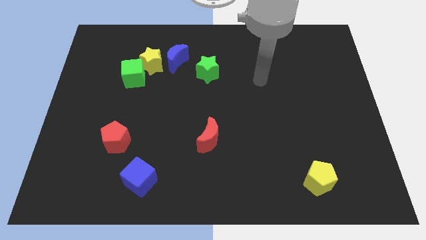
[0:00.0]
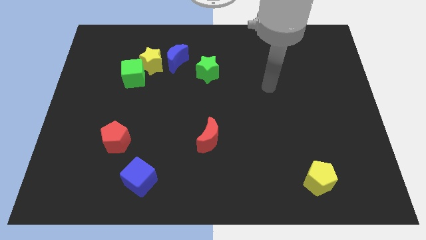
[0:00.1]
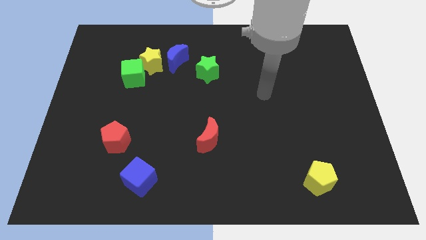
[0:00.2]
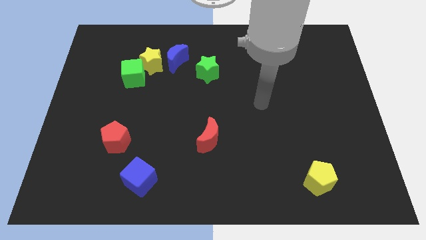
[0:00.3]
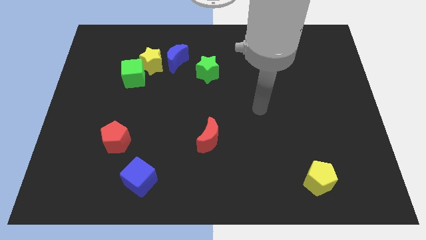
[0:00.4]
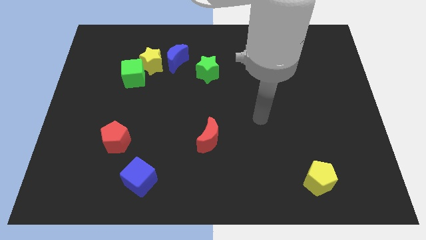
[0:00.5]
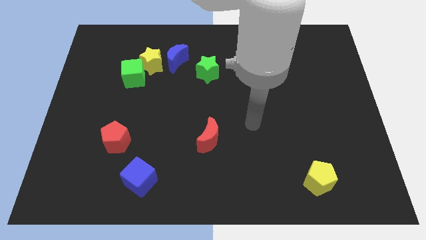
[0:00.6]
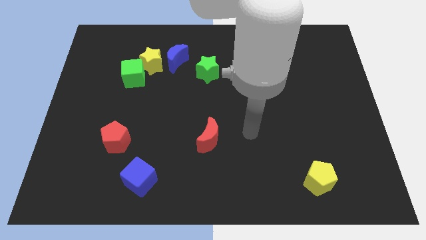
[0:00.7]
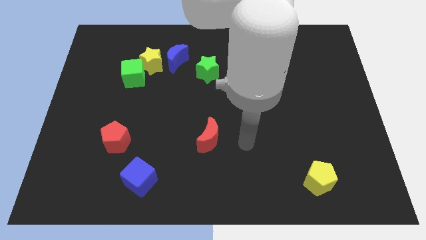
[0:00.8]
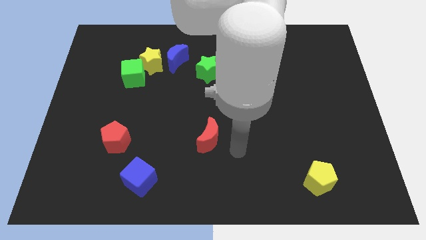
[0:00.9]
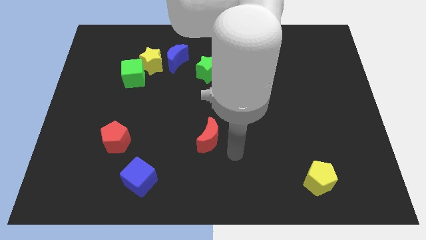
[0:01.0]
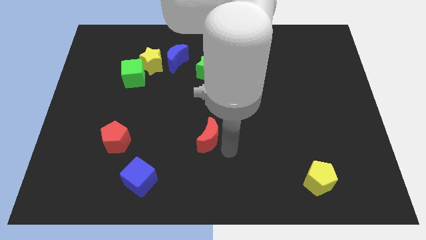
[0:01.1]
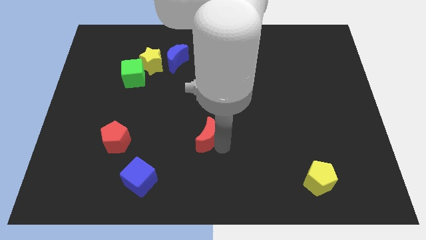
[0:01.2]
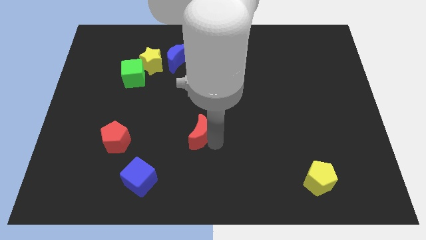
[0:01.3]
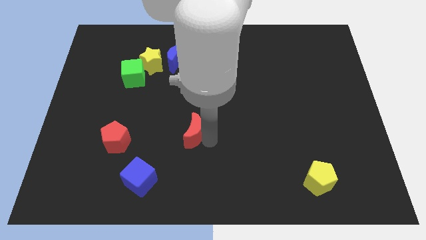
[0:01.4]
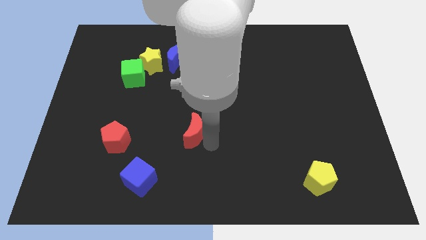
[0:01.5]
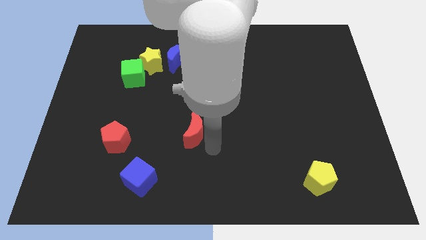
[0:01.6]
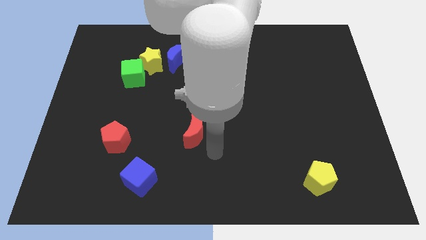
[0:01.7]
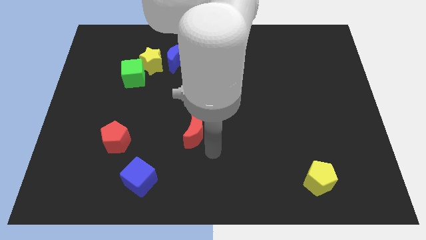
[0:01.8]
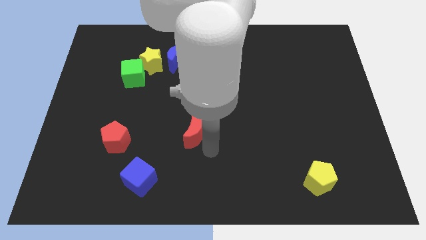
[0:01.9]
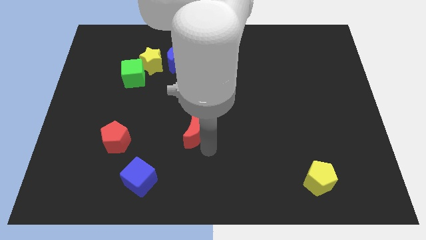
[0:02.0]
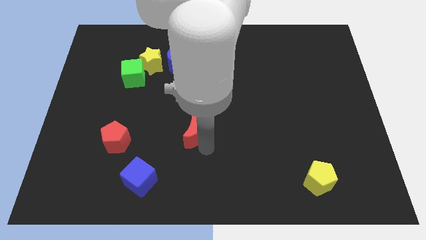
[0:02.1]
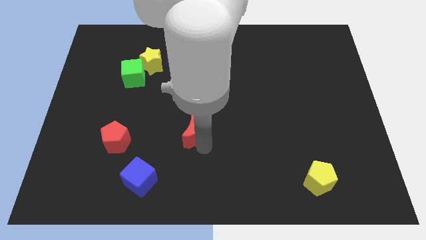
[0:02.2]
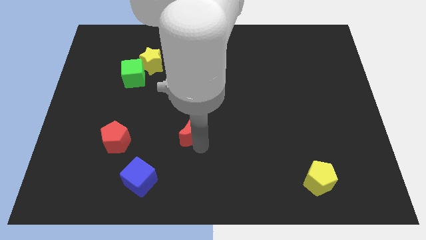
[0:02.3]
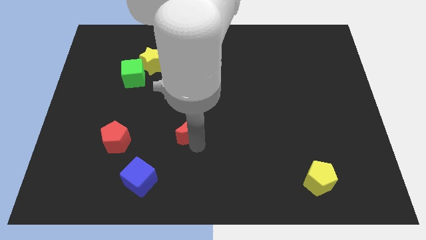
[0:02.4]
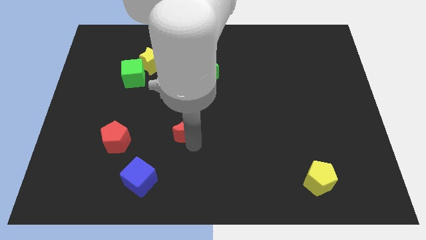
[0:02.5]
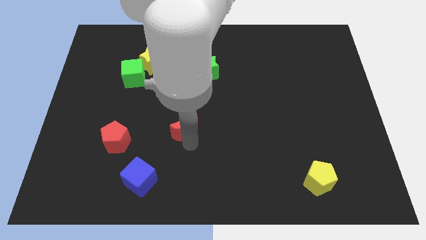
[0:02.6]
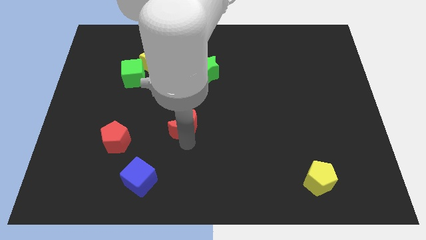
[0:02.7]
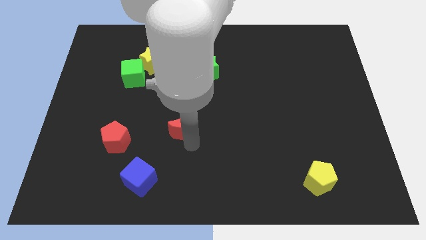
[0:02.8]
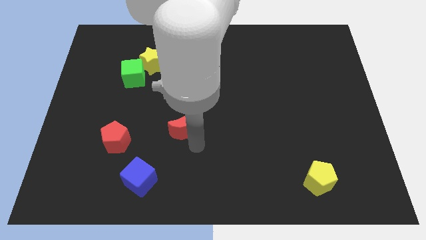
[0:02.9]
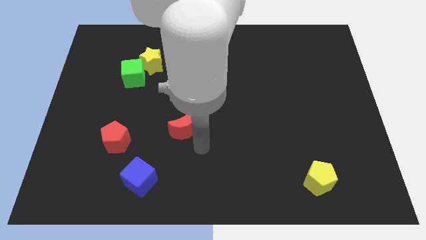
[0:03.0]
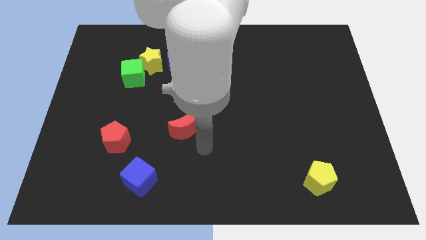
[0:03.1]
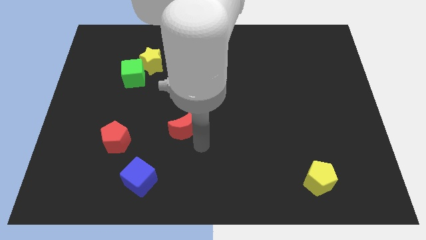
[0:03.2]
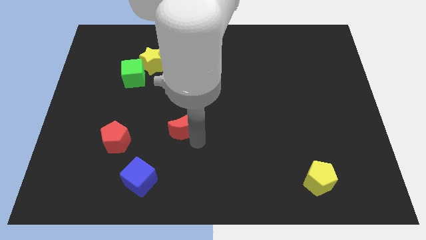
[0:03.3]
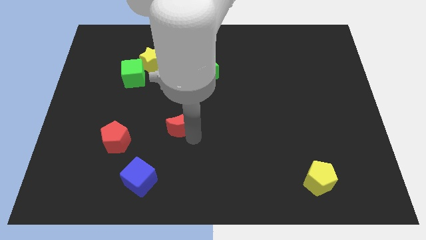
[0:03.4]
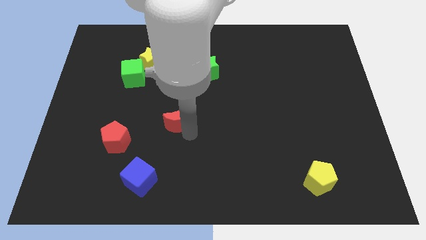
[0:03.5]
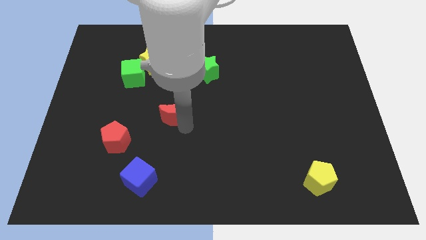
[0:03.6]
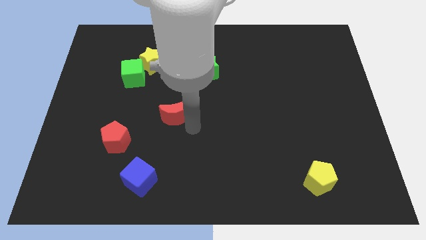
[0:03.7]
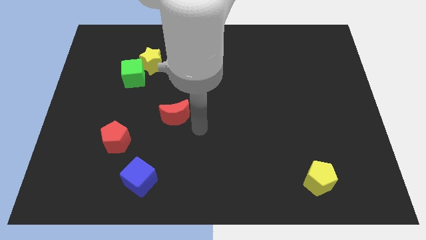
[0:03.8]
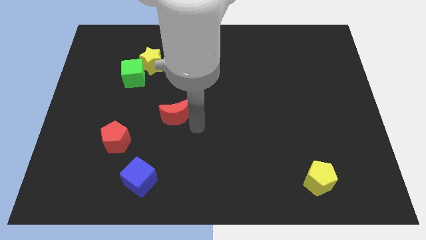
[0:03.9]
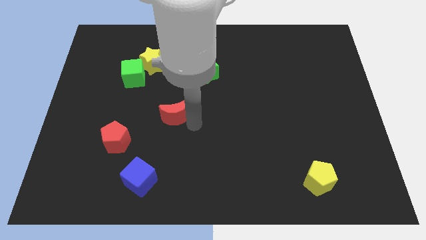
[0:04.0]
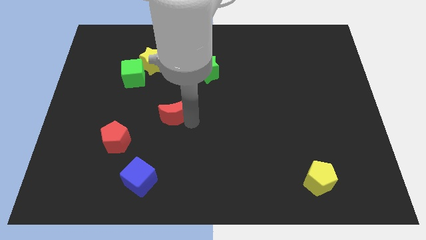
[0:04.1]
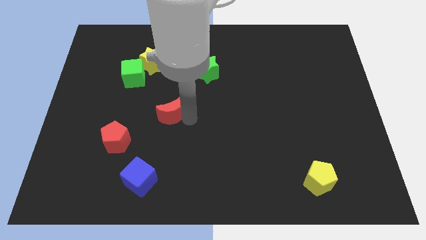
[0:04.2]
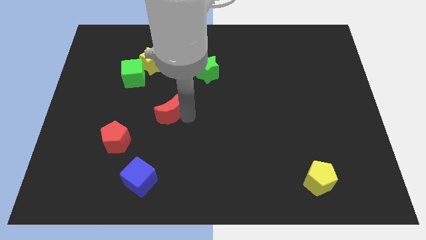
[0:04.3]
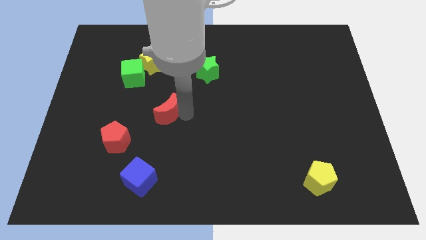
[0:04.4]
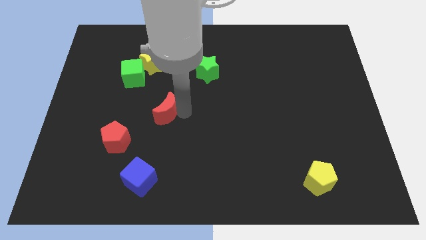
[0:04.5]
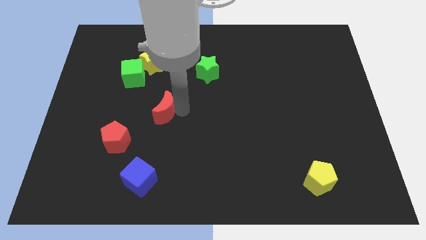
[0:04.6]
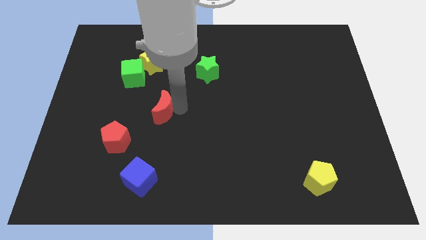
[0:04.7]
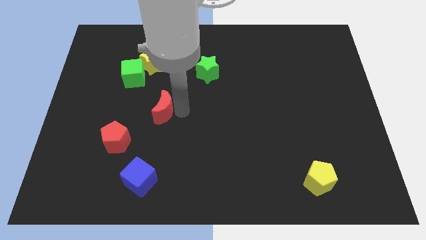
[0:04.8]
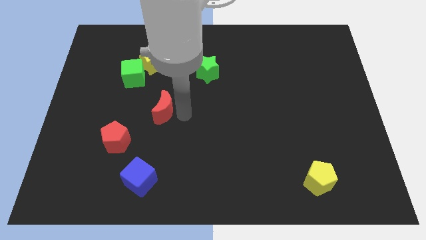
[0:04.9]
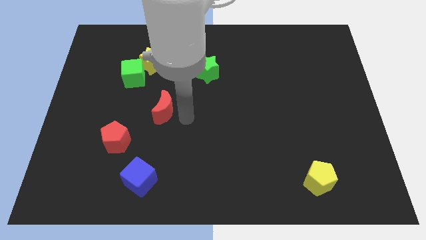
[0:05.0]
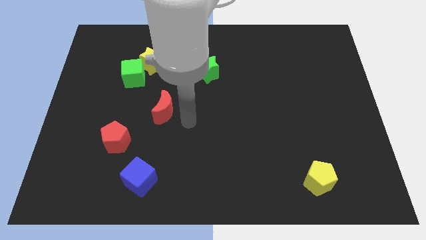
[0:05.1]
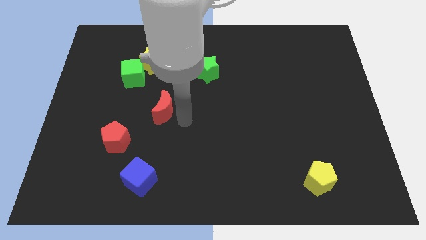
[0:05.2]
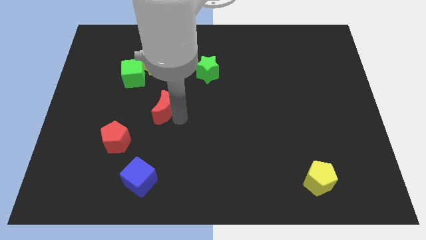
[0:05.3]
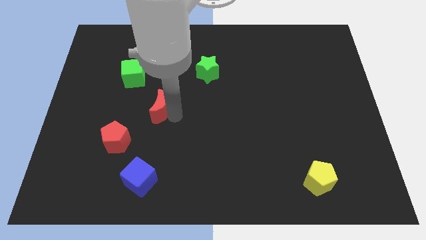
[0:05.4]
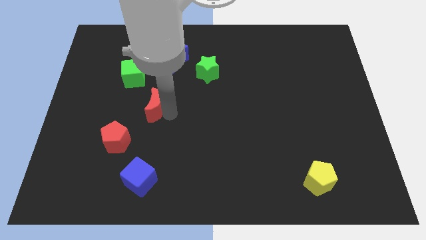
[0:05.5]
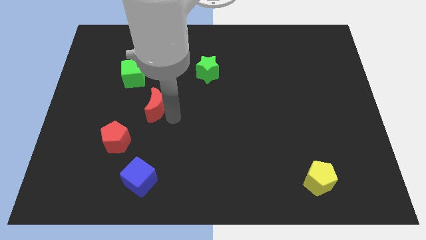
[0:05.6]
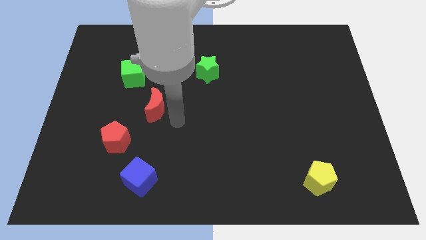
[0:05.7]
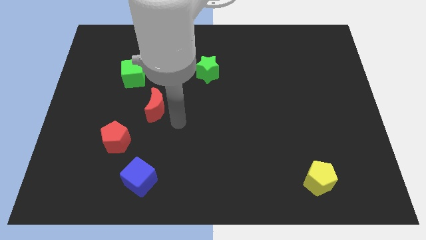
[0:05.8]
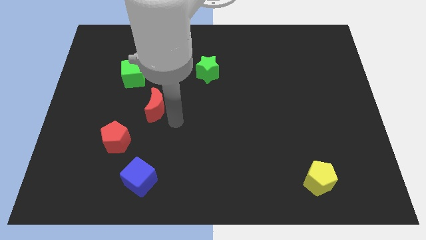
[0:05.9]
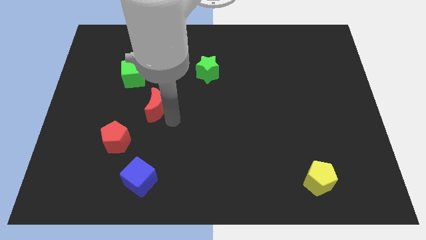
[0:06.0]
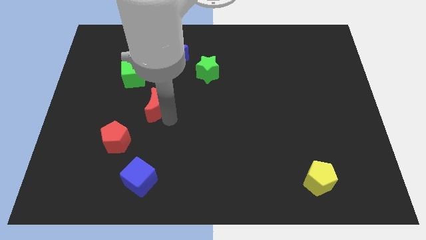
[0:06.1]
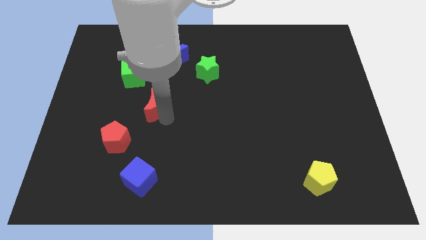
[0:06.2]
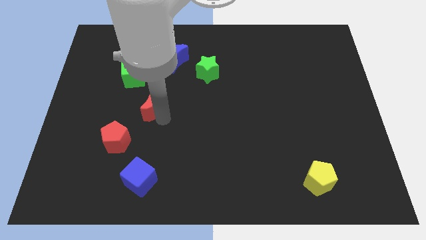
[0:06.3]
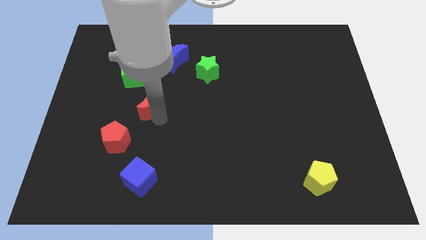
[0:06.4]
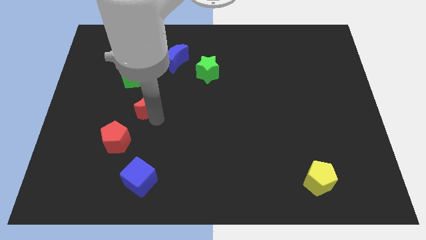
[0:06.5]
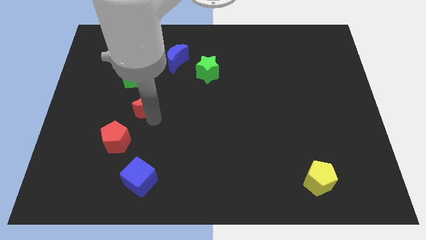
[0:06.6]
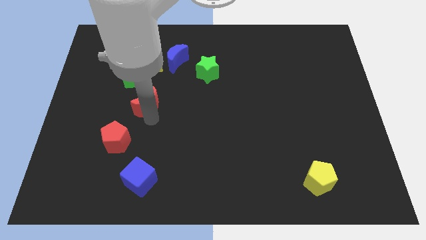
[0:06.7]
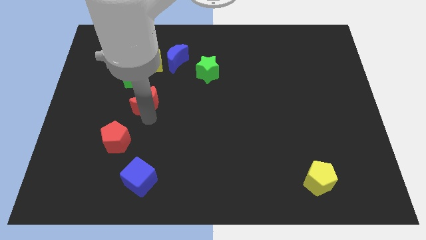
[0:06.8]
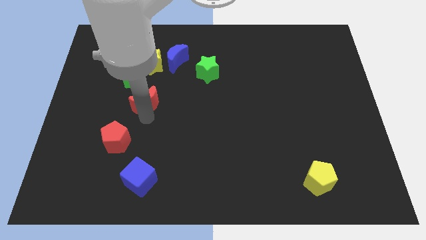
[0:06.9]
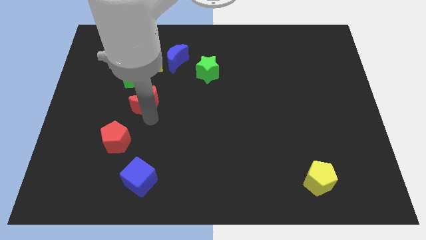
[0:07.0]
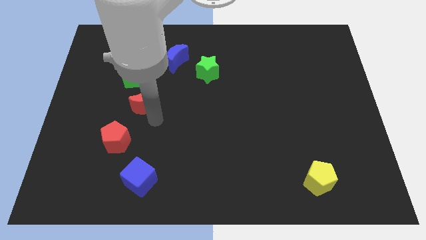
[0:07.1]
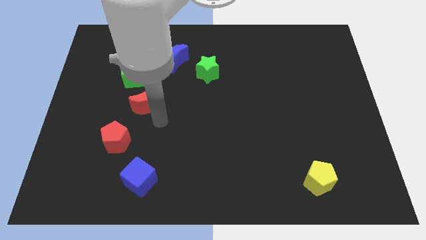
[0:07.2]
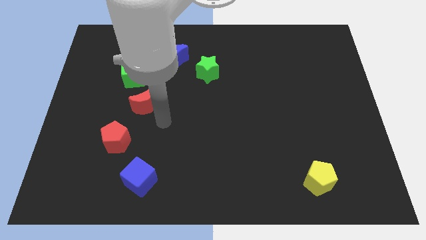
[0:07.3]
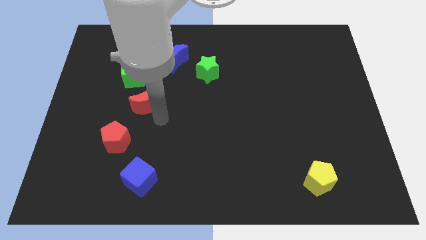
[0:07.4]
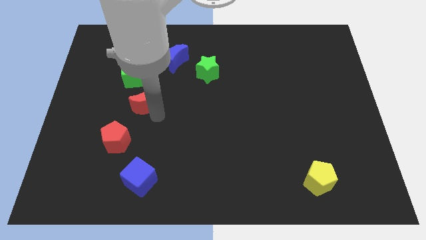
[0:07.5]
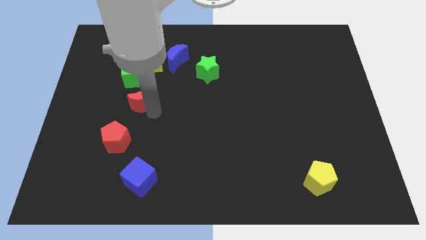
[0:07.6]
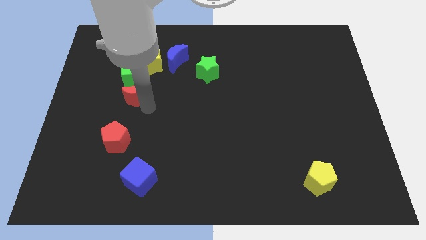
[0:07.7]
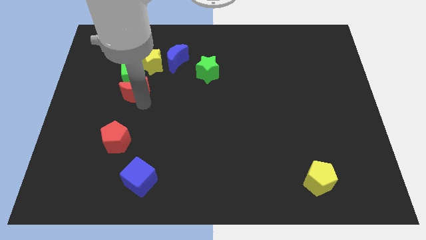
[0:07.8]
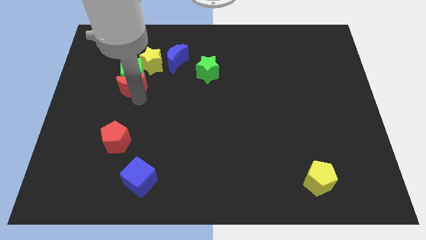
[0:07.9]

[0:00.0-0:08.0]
slide the red moon to the bottom left side of the yellow star
